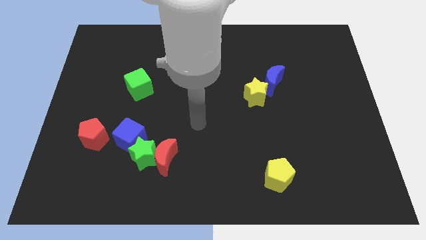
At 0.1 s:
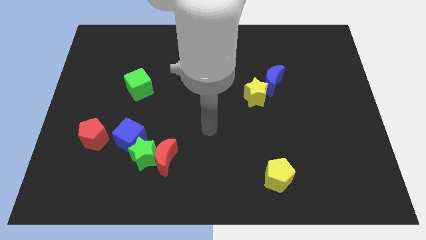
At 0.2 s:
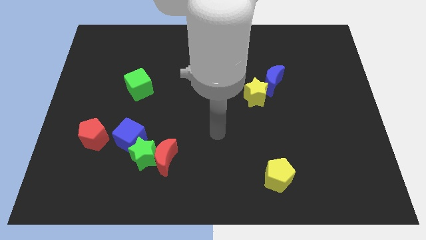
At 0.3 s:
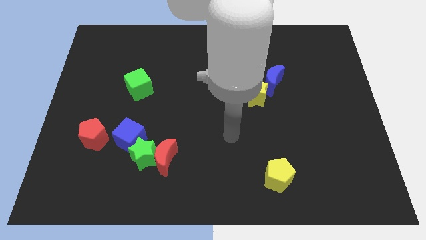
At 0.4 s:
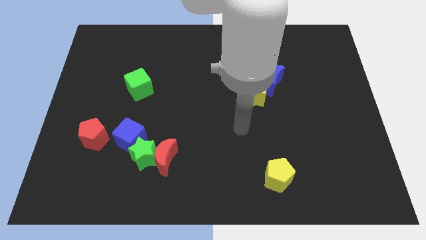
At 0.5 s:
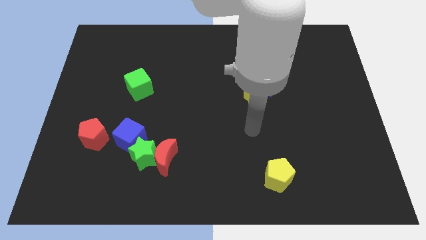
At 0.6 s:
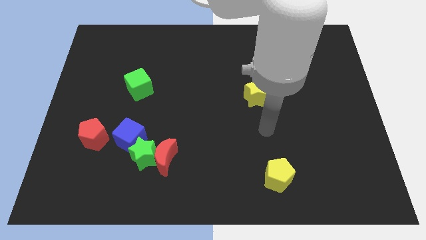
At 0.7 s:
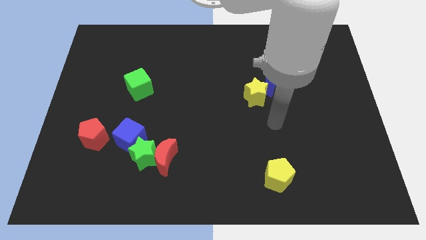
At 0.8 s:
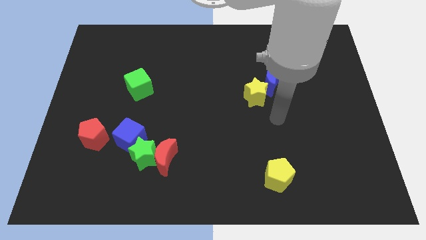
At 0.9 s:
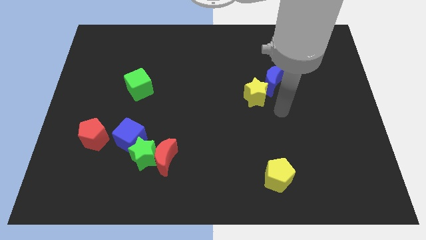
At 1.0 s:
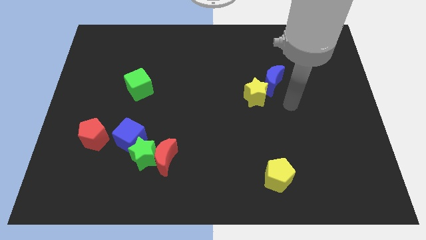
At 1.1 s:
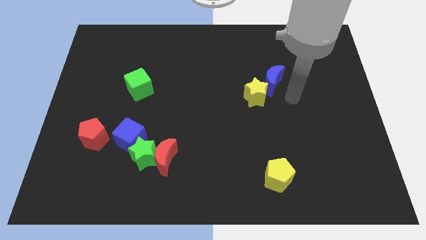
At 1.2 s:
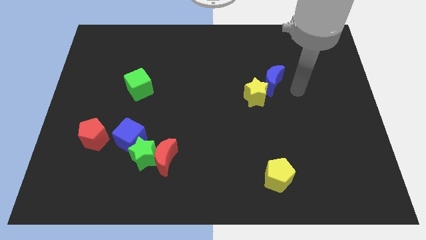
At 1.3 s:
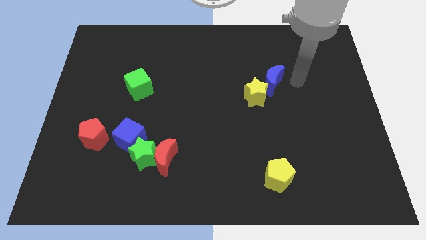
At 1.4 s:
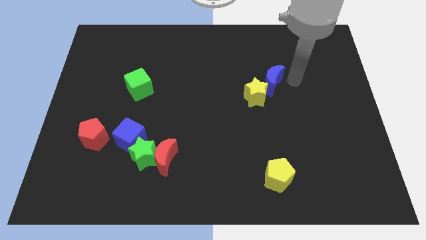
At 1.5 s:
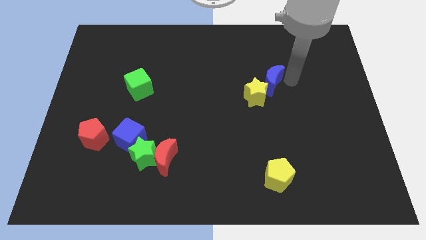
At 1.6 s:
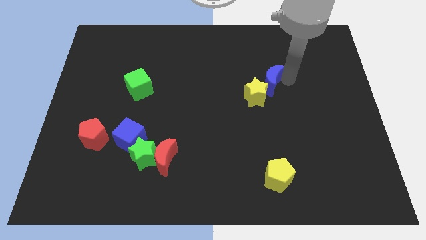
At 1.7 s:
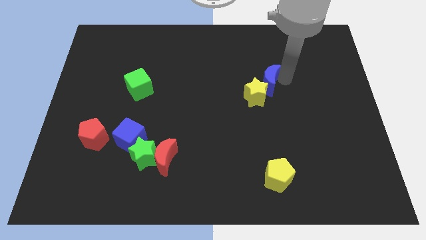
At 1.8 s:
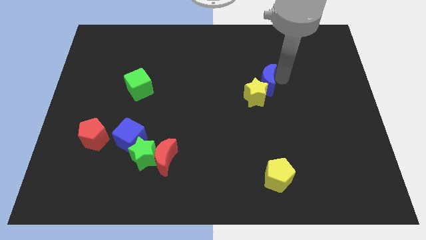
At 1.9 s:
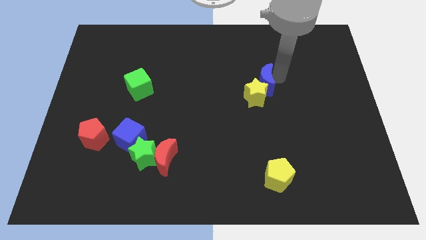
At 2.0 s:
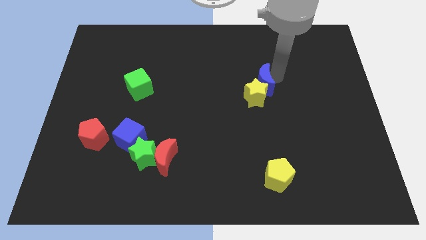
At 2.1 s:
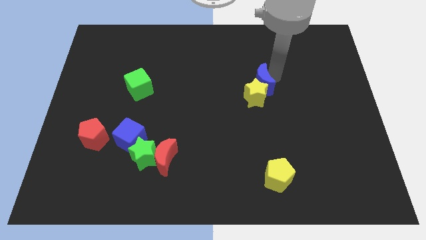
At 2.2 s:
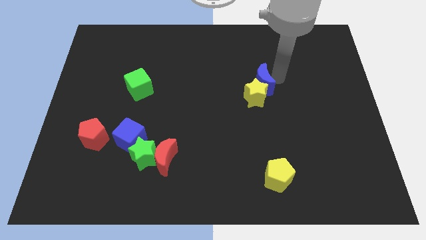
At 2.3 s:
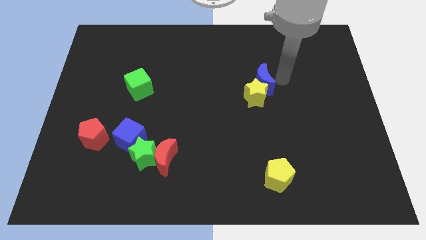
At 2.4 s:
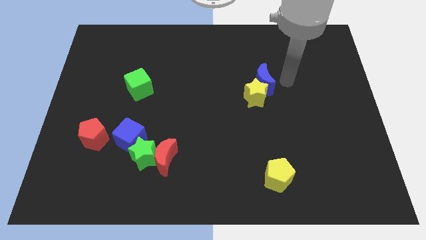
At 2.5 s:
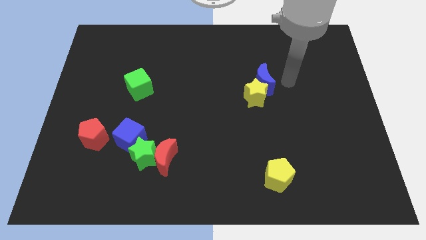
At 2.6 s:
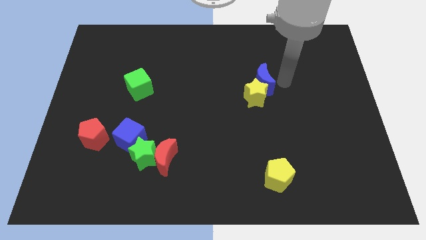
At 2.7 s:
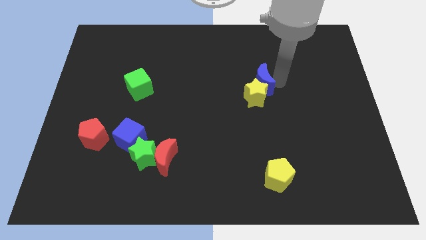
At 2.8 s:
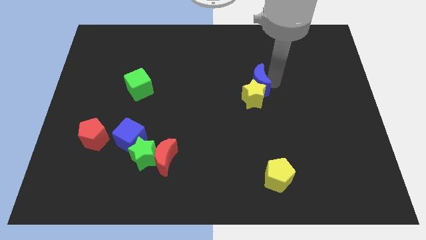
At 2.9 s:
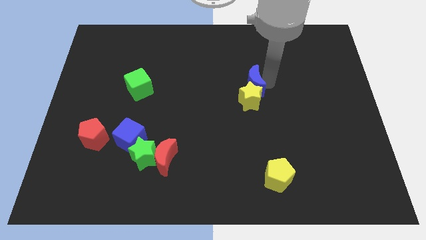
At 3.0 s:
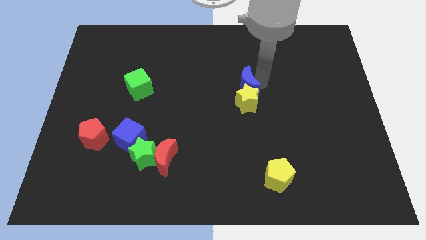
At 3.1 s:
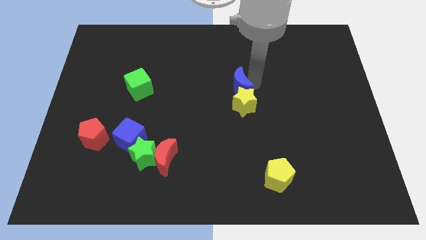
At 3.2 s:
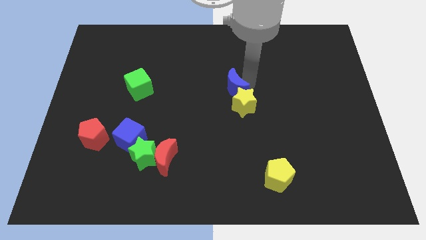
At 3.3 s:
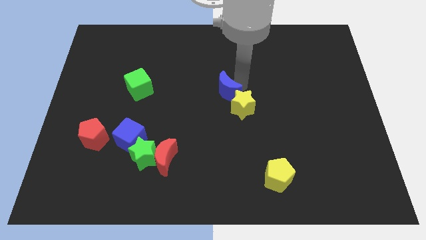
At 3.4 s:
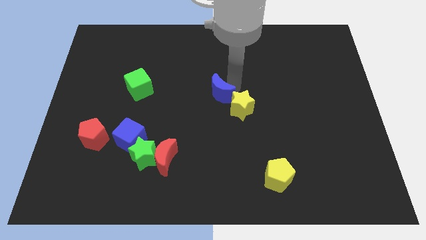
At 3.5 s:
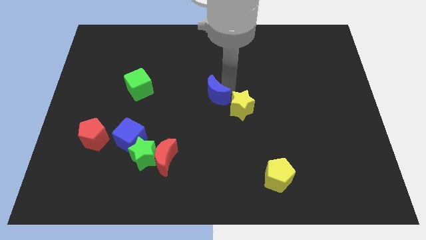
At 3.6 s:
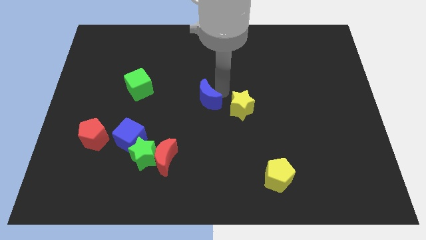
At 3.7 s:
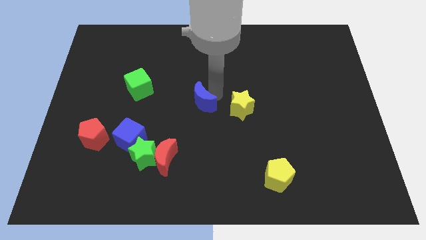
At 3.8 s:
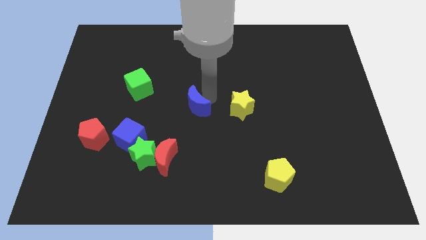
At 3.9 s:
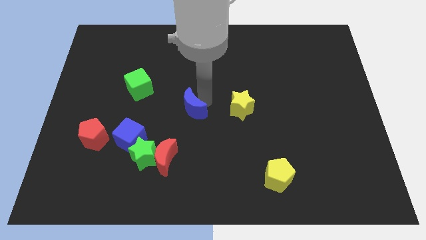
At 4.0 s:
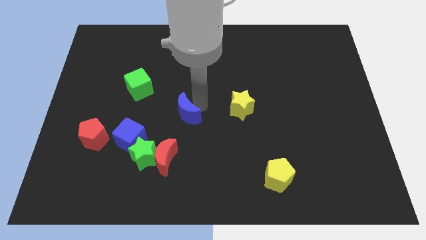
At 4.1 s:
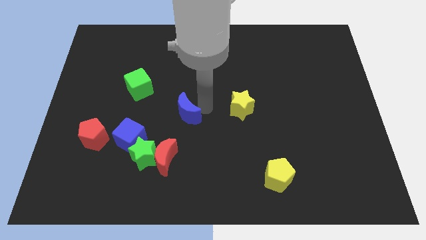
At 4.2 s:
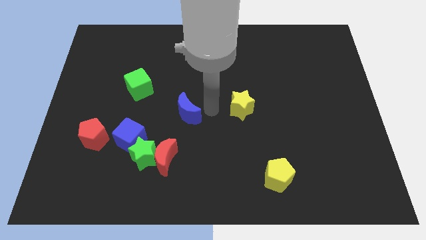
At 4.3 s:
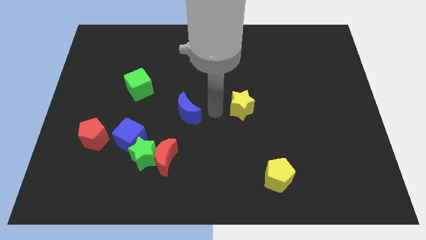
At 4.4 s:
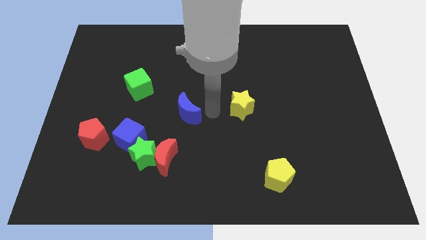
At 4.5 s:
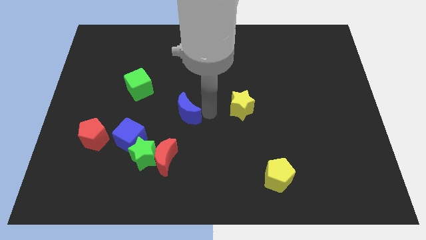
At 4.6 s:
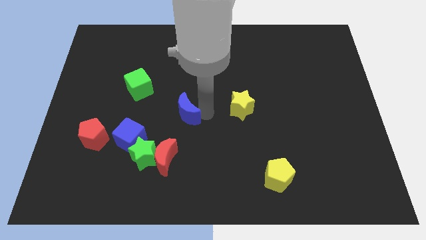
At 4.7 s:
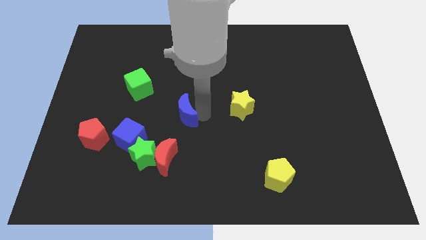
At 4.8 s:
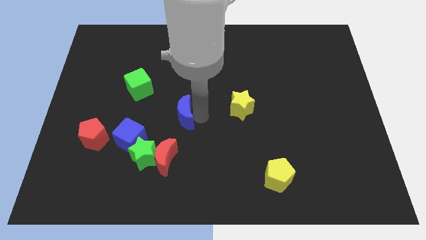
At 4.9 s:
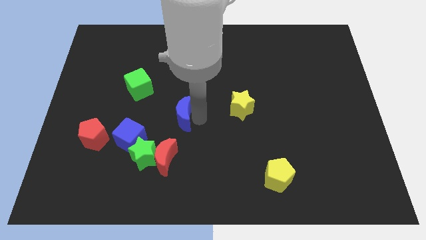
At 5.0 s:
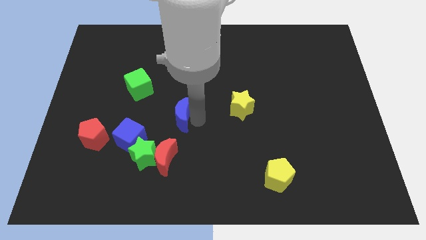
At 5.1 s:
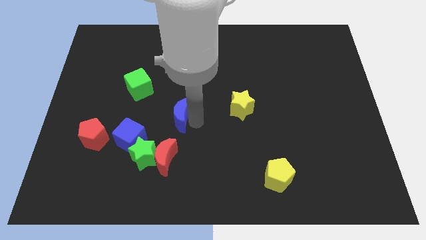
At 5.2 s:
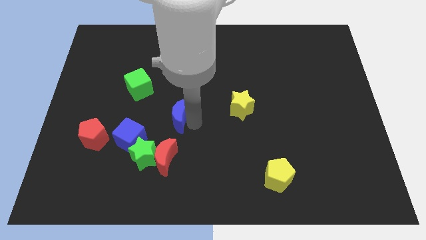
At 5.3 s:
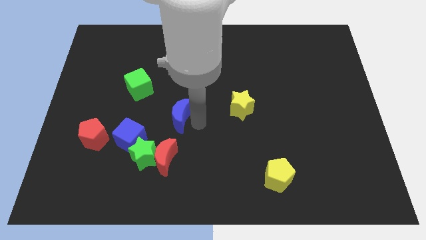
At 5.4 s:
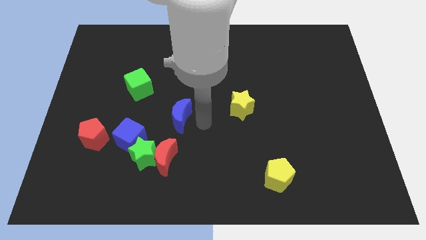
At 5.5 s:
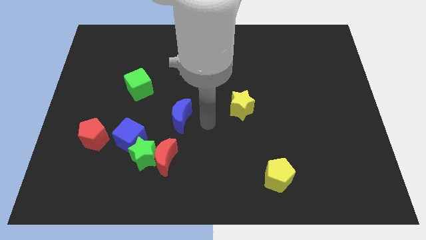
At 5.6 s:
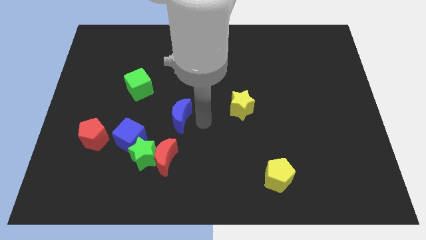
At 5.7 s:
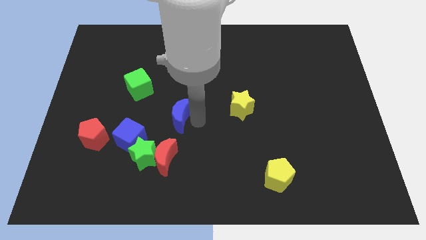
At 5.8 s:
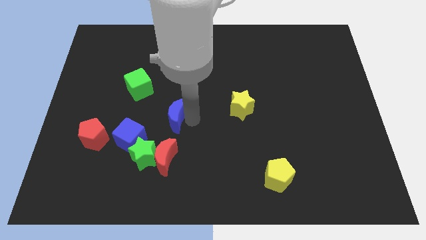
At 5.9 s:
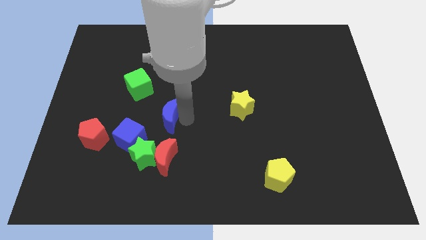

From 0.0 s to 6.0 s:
move the blue moon to the top of the green star
